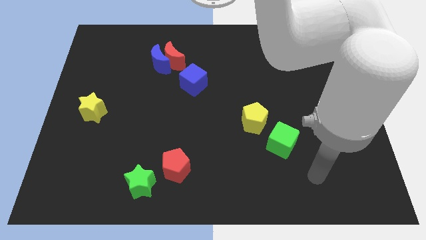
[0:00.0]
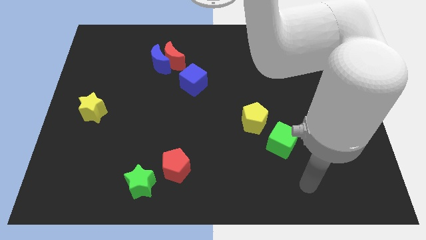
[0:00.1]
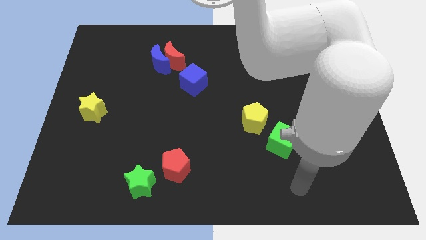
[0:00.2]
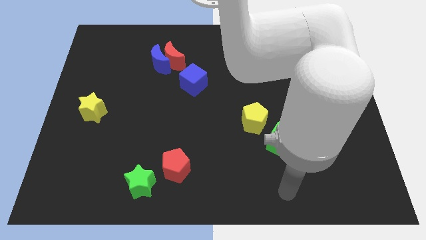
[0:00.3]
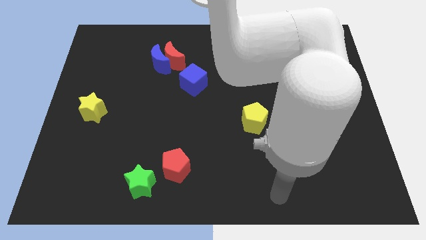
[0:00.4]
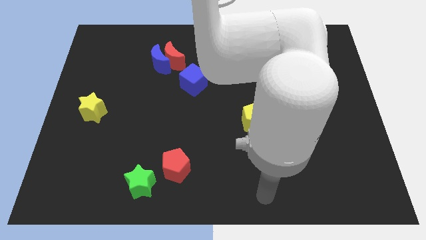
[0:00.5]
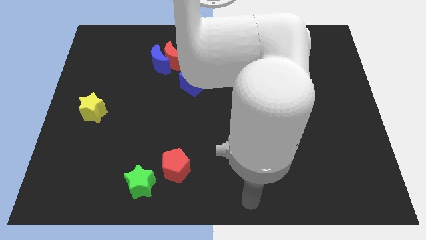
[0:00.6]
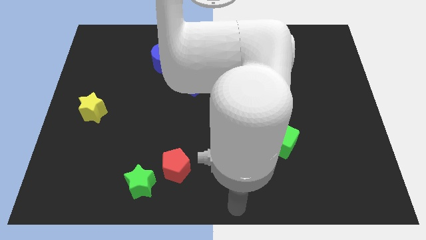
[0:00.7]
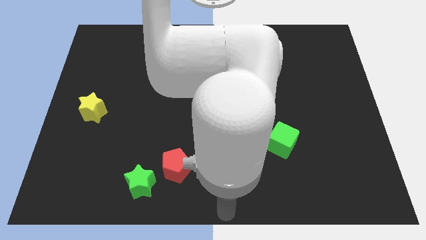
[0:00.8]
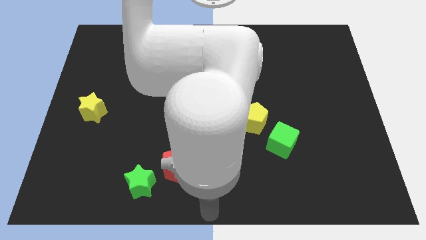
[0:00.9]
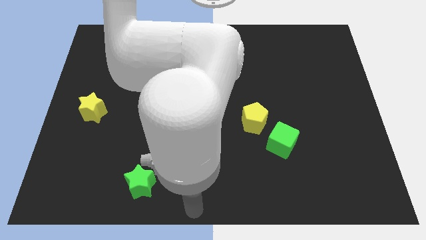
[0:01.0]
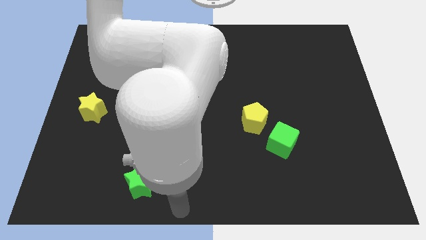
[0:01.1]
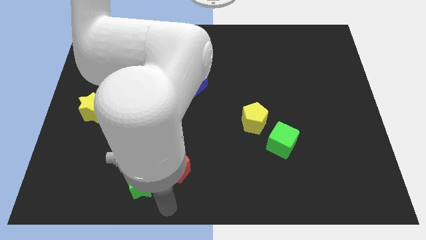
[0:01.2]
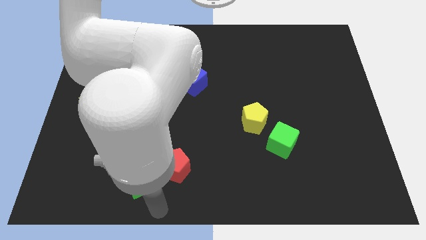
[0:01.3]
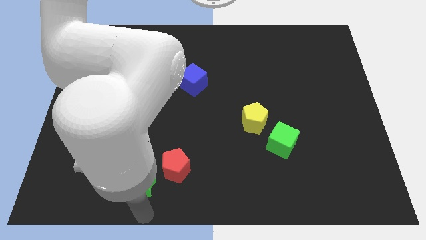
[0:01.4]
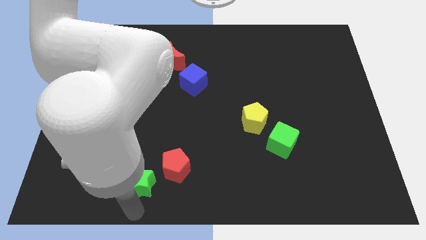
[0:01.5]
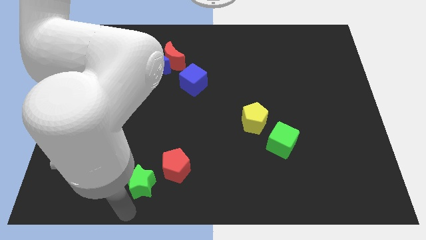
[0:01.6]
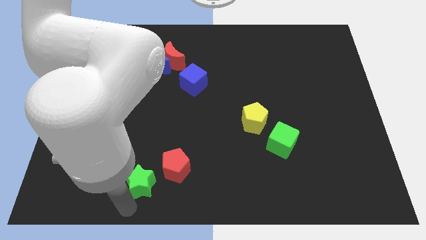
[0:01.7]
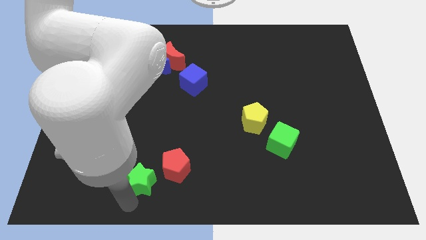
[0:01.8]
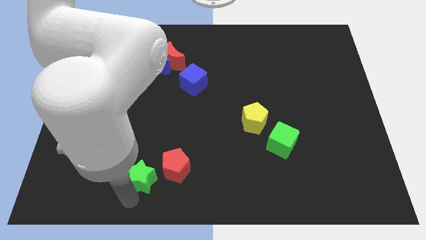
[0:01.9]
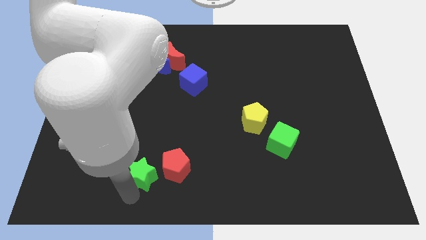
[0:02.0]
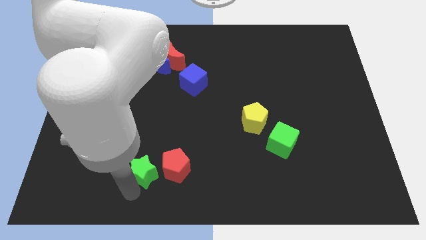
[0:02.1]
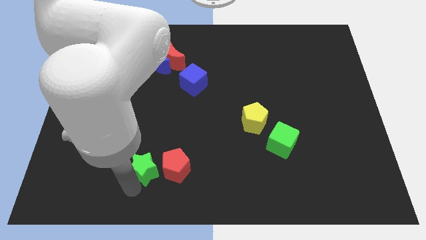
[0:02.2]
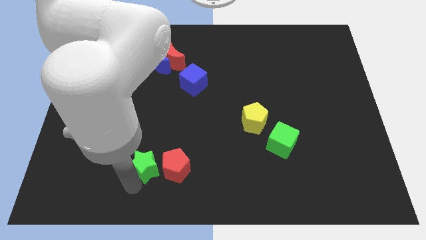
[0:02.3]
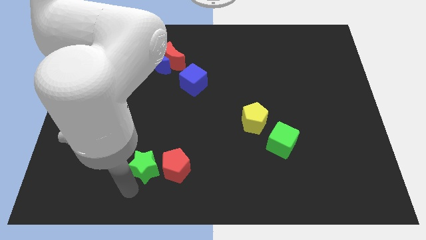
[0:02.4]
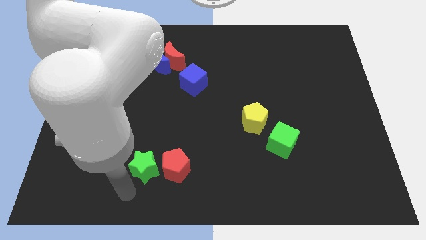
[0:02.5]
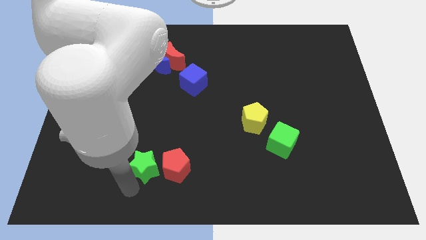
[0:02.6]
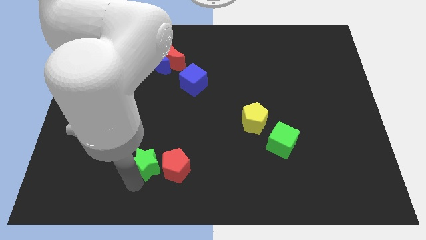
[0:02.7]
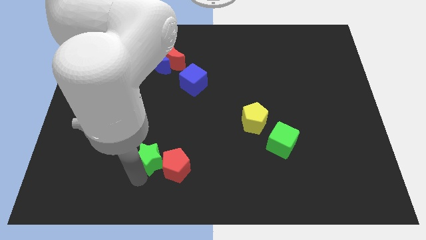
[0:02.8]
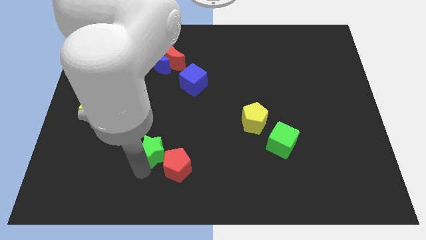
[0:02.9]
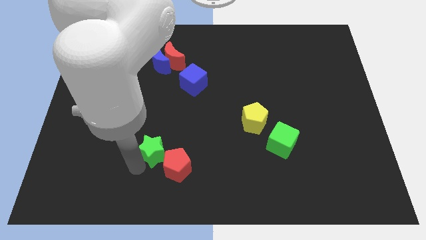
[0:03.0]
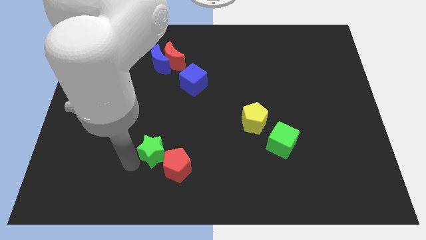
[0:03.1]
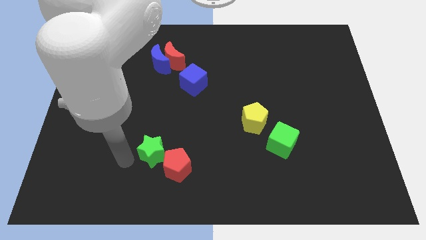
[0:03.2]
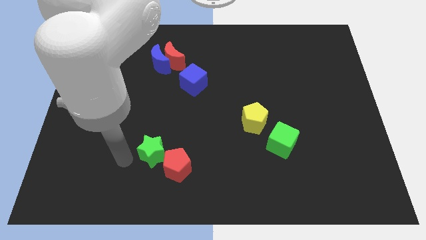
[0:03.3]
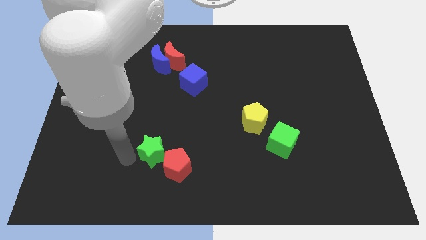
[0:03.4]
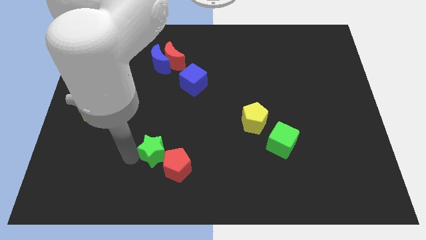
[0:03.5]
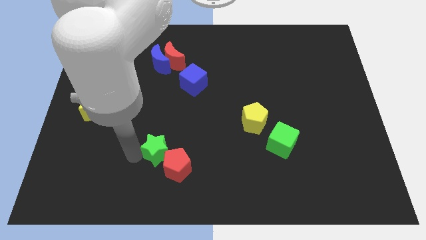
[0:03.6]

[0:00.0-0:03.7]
move the green star a little bit diagonally up and to the right

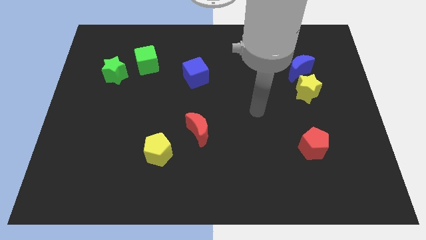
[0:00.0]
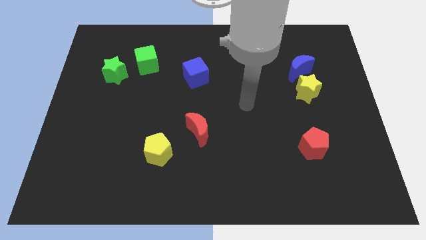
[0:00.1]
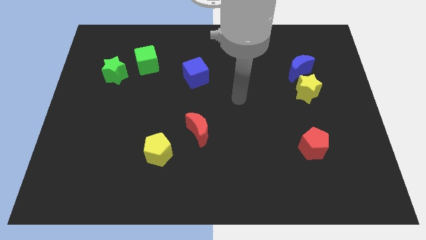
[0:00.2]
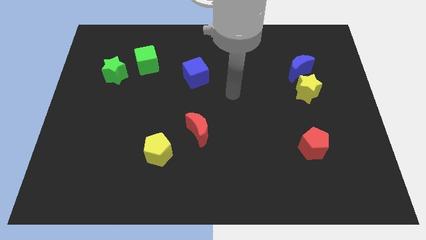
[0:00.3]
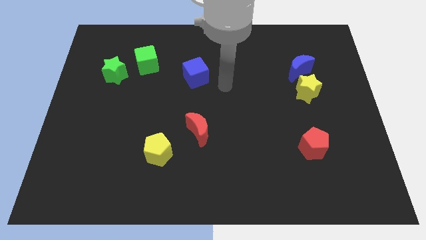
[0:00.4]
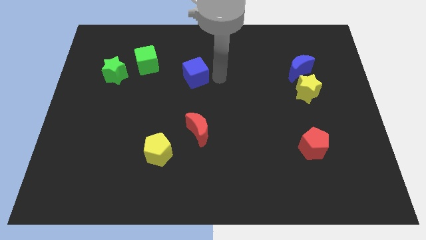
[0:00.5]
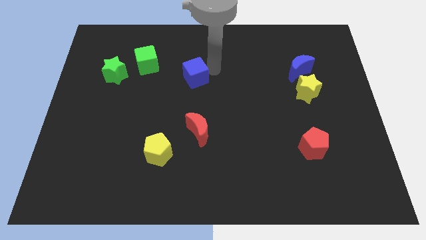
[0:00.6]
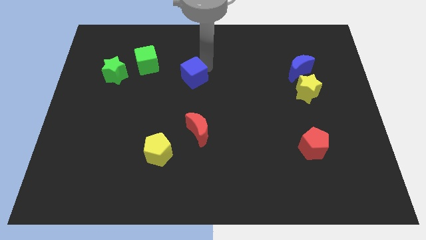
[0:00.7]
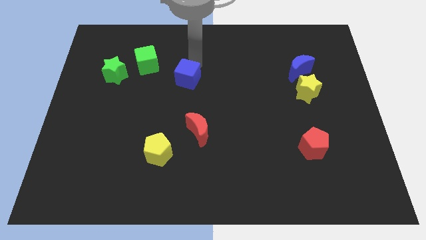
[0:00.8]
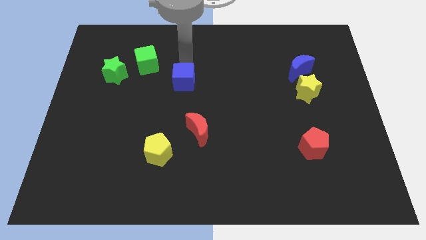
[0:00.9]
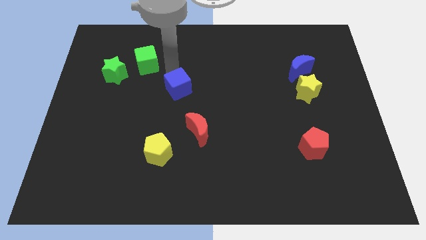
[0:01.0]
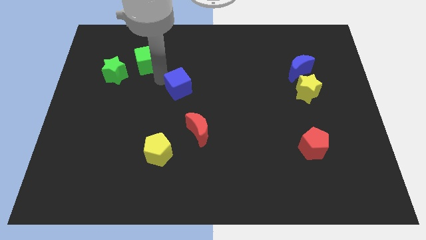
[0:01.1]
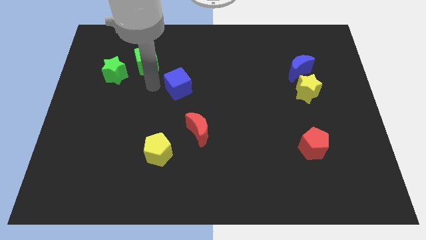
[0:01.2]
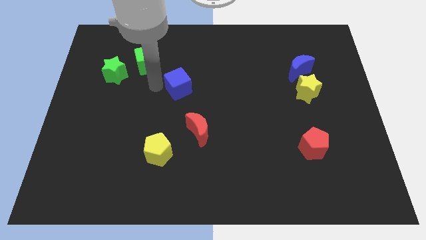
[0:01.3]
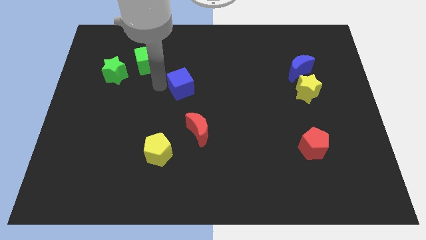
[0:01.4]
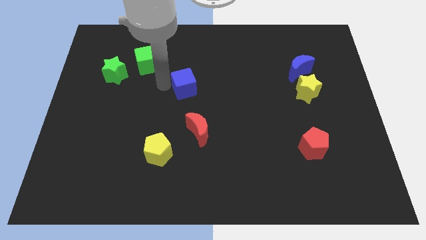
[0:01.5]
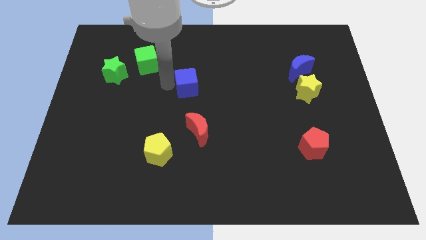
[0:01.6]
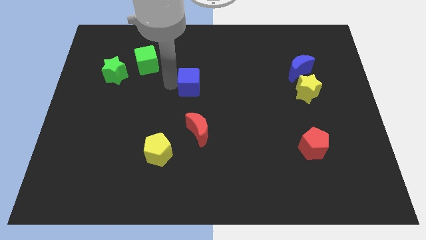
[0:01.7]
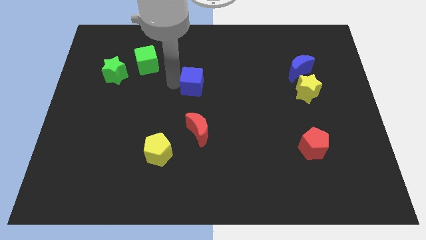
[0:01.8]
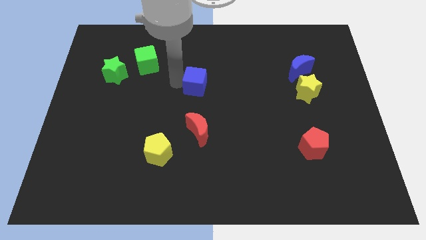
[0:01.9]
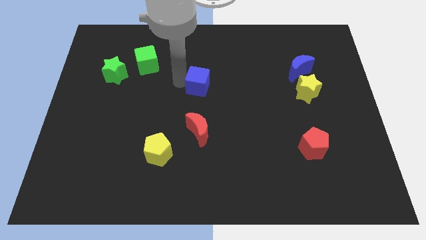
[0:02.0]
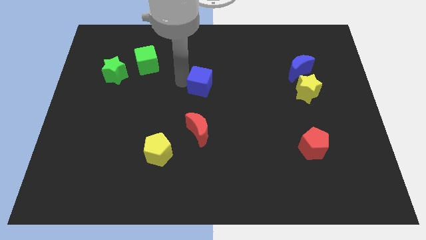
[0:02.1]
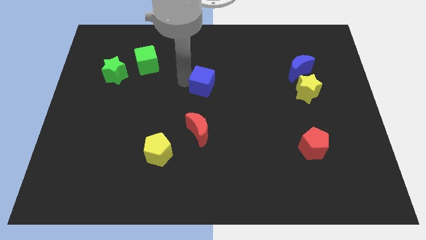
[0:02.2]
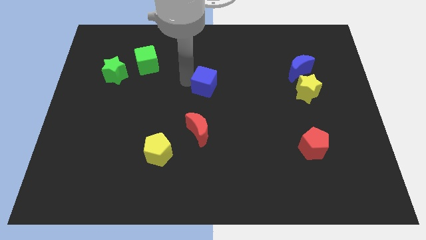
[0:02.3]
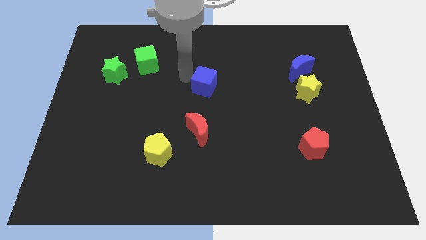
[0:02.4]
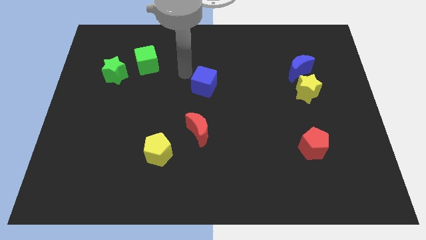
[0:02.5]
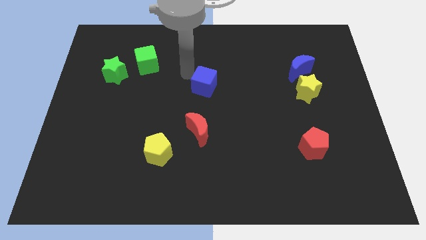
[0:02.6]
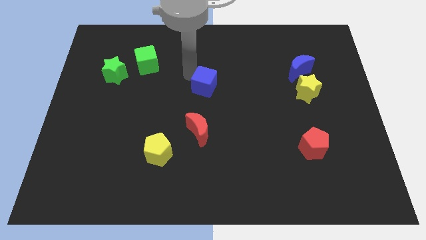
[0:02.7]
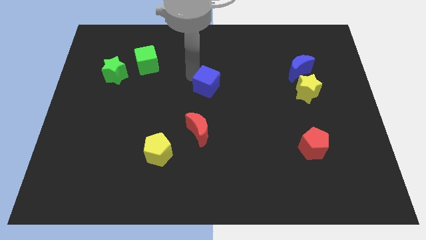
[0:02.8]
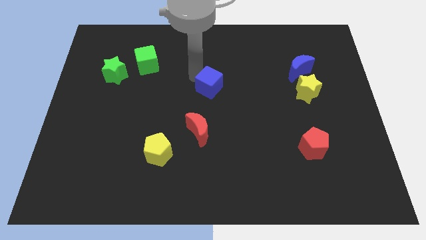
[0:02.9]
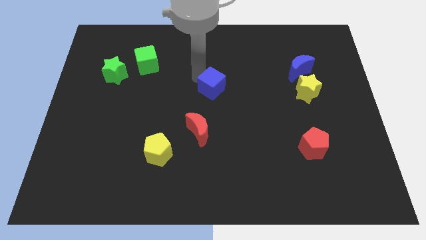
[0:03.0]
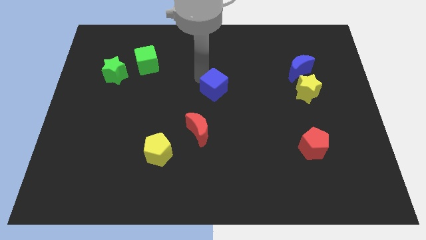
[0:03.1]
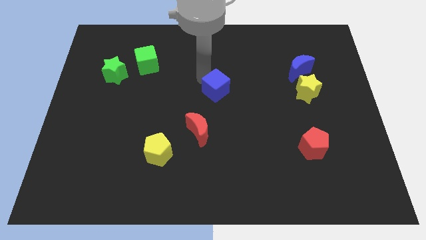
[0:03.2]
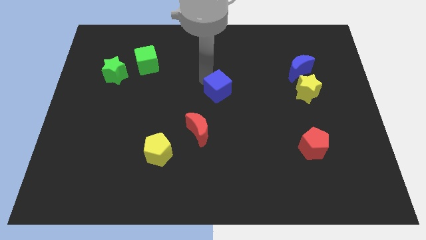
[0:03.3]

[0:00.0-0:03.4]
move the blue cube down and right diagonally a little bit

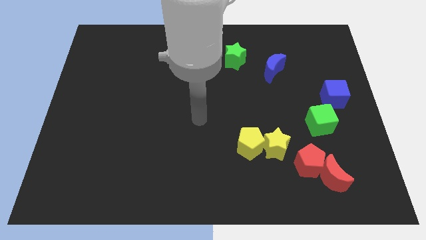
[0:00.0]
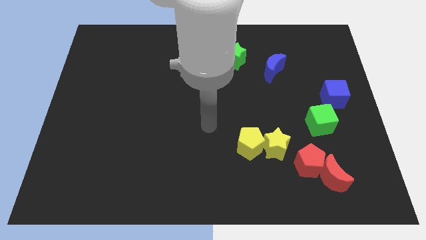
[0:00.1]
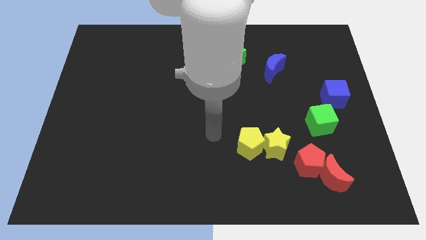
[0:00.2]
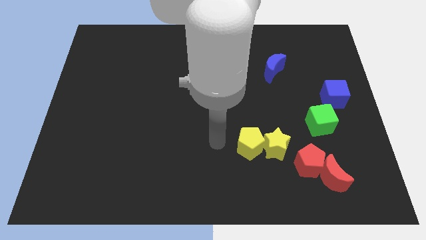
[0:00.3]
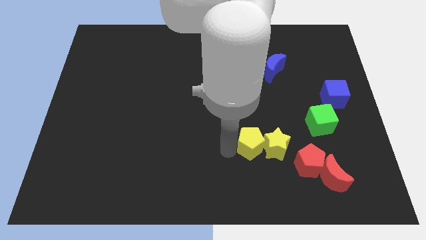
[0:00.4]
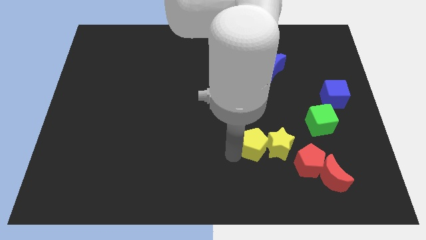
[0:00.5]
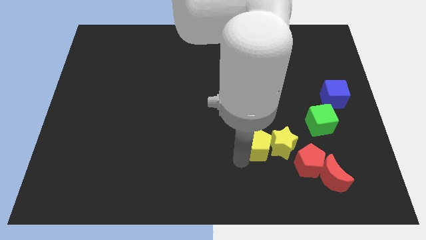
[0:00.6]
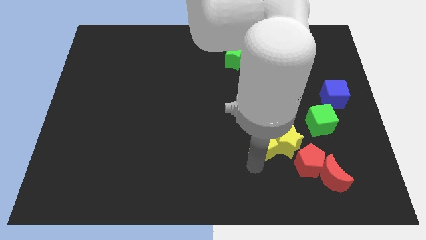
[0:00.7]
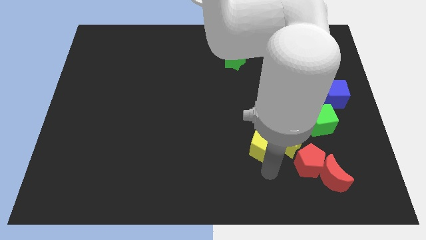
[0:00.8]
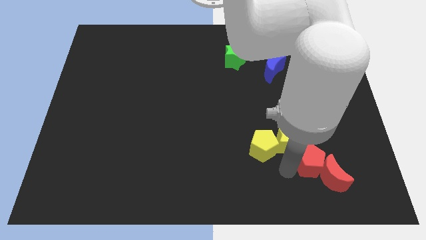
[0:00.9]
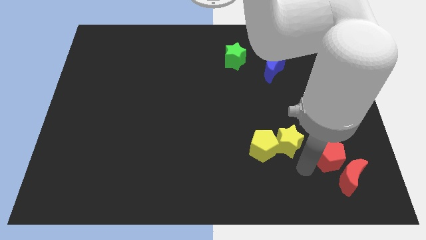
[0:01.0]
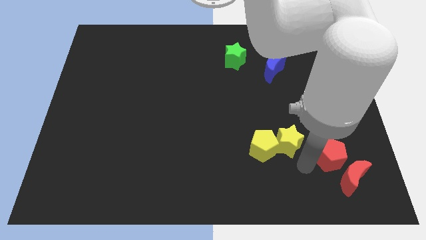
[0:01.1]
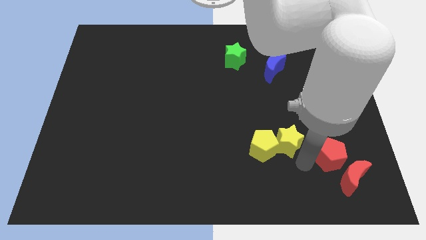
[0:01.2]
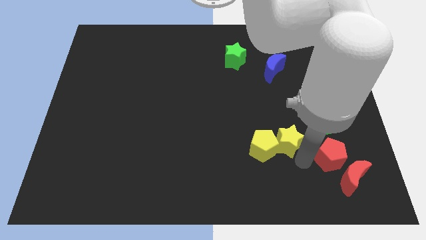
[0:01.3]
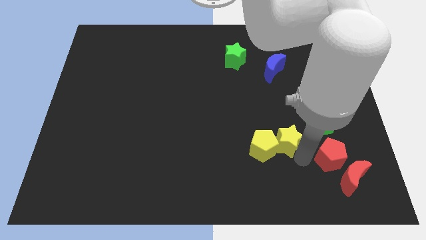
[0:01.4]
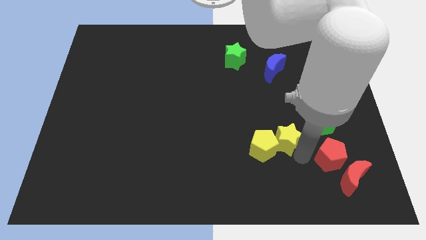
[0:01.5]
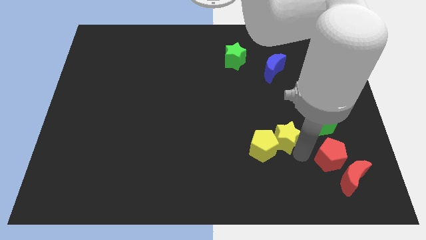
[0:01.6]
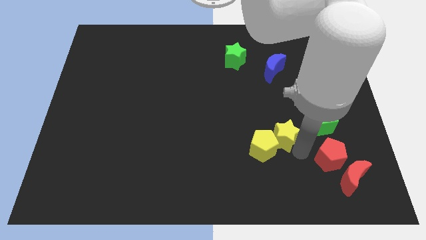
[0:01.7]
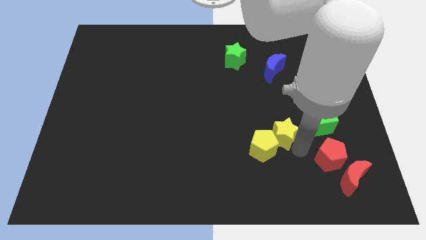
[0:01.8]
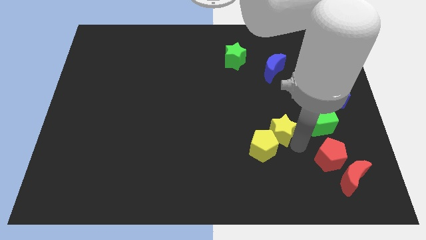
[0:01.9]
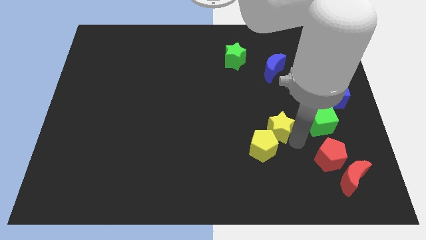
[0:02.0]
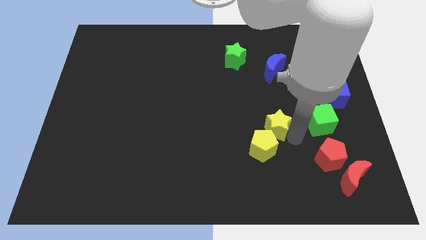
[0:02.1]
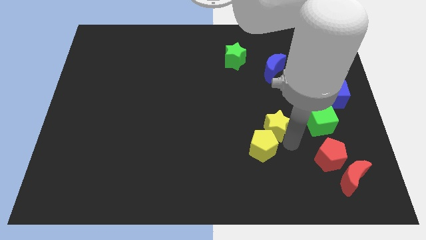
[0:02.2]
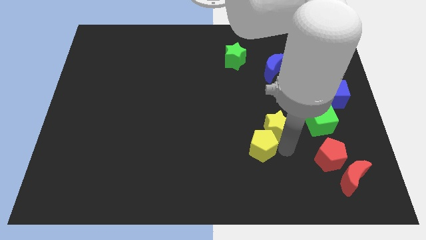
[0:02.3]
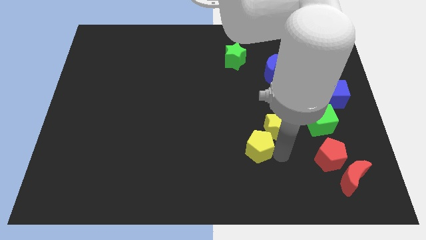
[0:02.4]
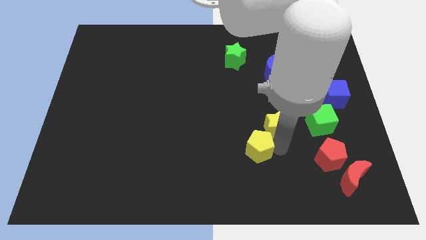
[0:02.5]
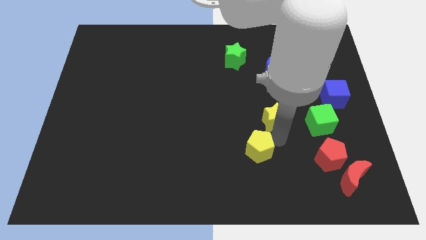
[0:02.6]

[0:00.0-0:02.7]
slightly slide the yellow star up
